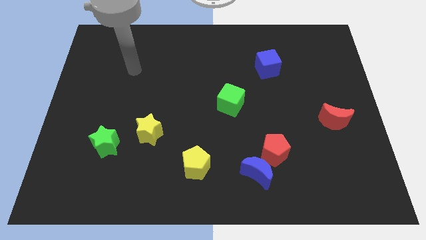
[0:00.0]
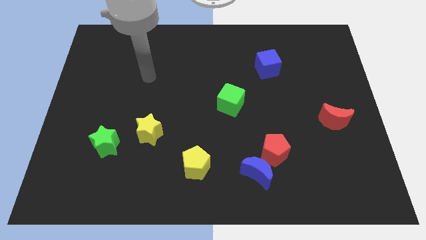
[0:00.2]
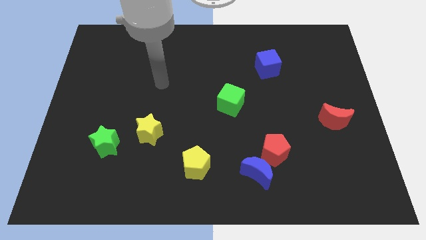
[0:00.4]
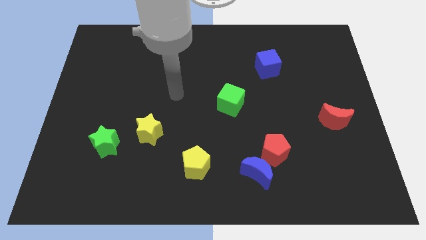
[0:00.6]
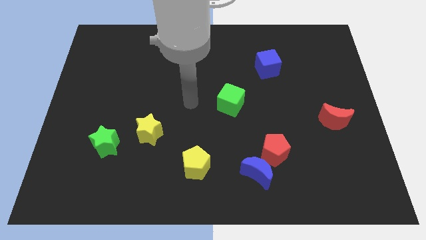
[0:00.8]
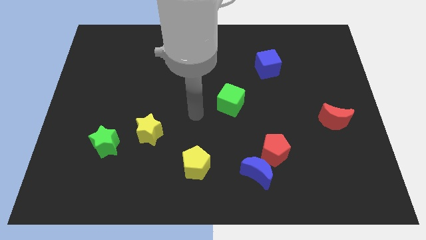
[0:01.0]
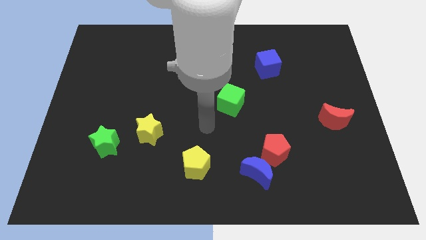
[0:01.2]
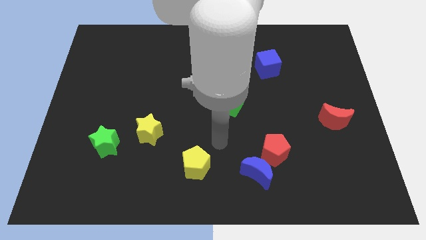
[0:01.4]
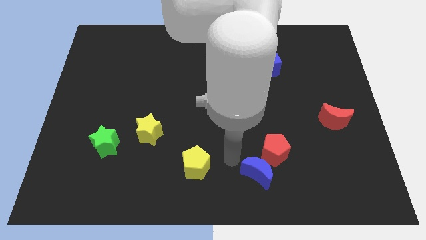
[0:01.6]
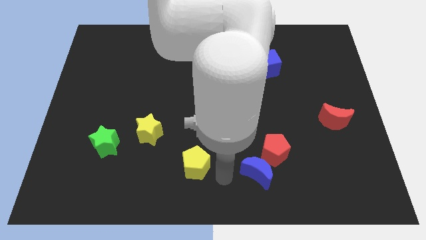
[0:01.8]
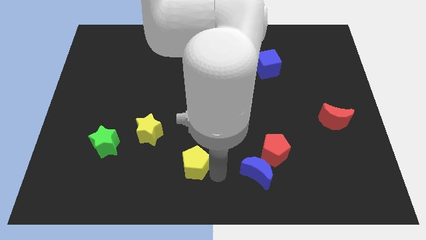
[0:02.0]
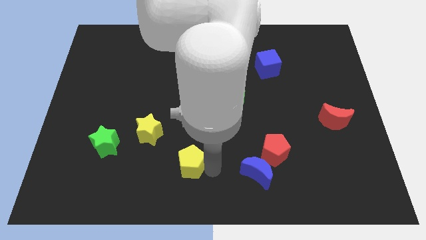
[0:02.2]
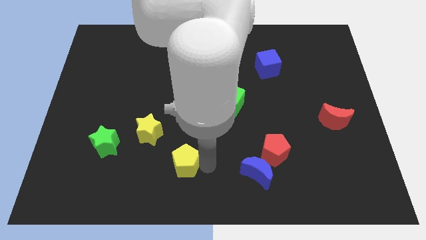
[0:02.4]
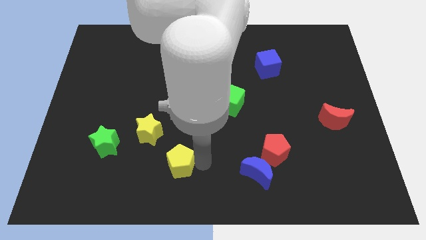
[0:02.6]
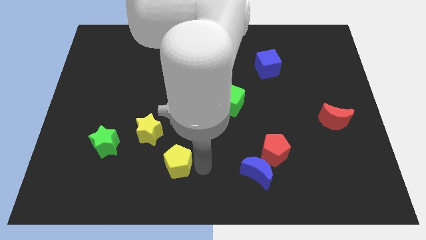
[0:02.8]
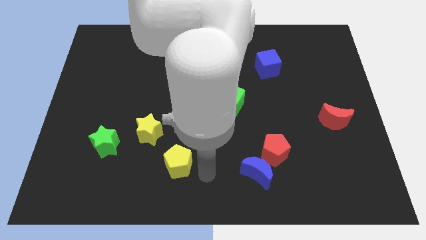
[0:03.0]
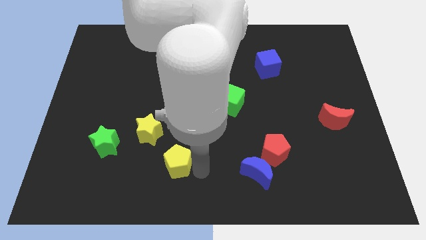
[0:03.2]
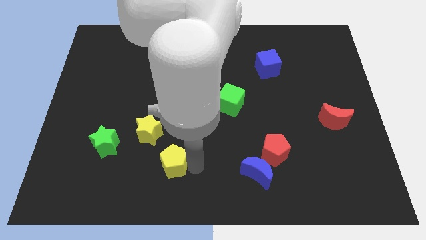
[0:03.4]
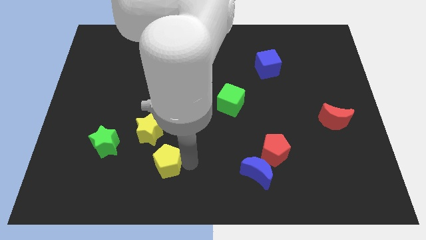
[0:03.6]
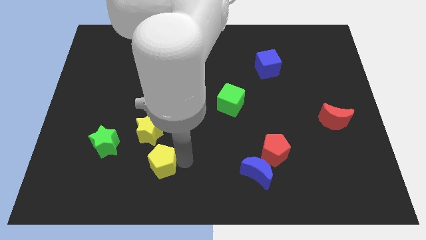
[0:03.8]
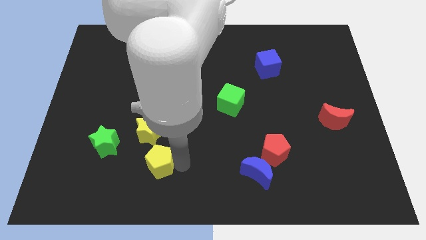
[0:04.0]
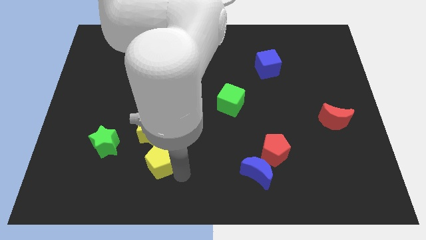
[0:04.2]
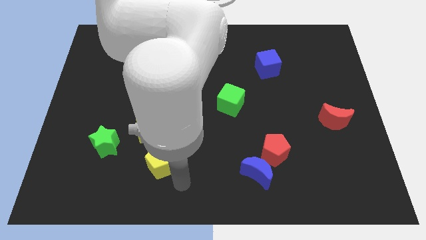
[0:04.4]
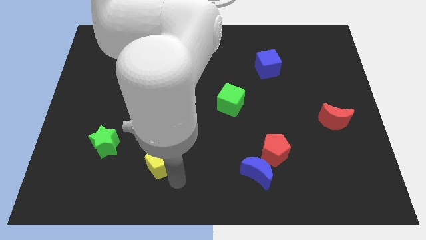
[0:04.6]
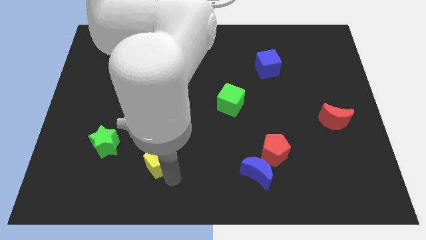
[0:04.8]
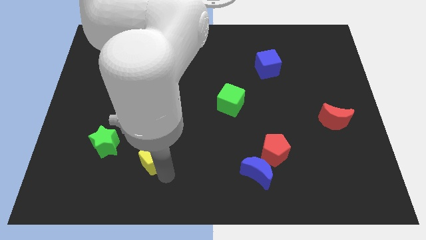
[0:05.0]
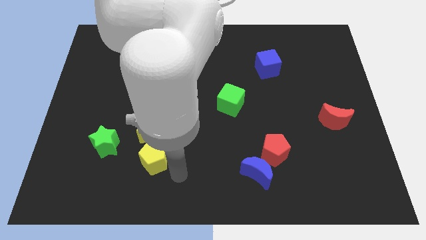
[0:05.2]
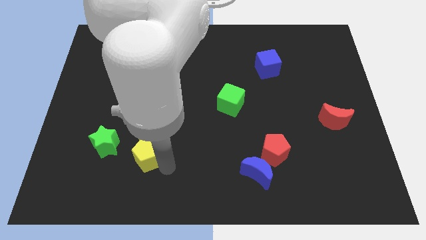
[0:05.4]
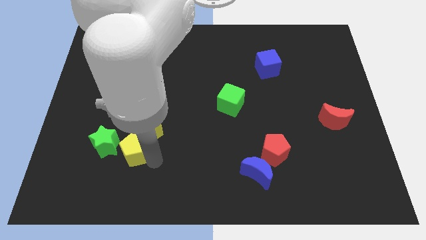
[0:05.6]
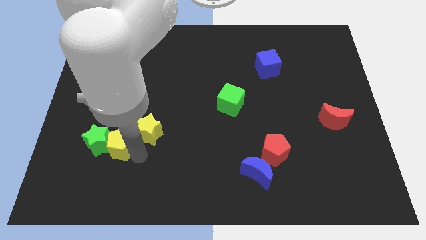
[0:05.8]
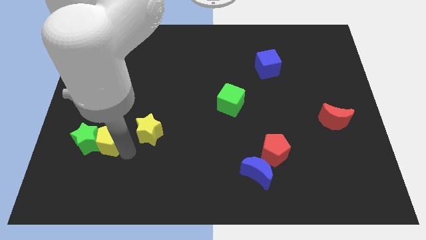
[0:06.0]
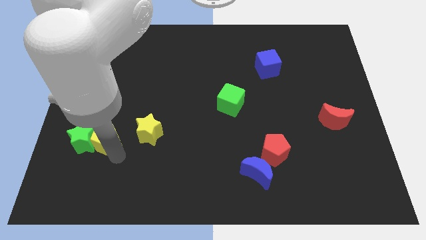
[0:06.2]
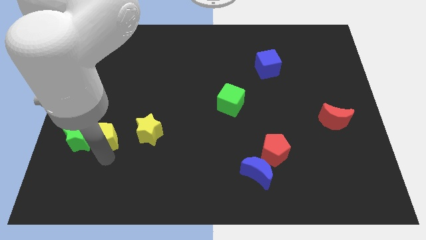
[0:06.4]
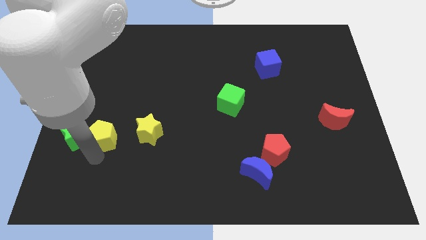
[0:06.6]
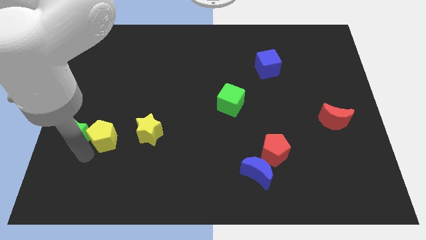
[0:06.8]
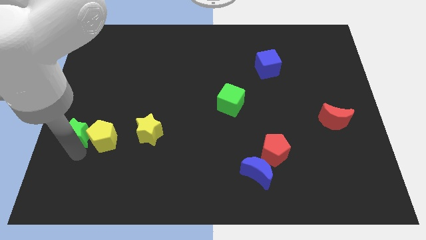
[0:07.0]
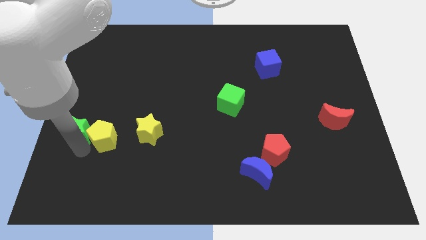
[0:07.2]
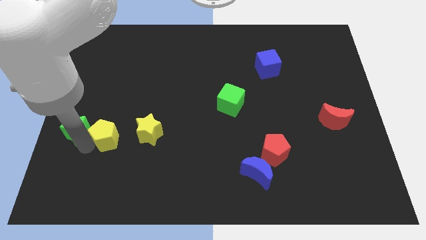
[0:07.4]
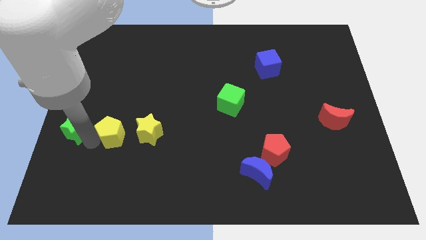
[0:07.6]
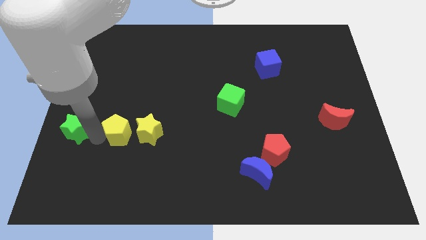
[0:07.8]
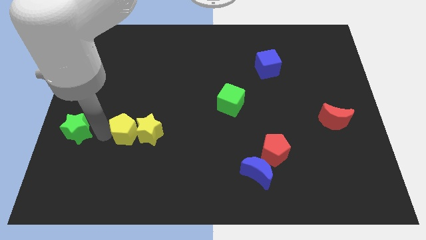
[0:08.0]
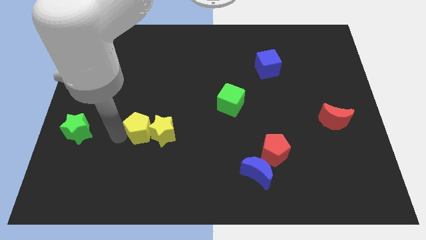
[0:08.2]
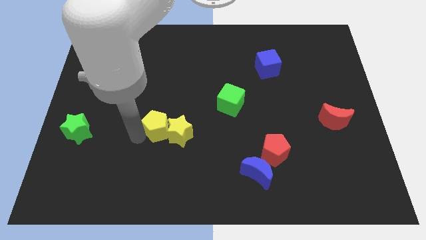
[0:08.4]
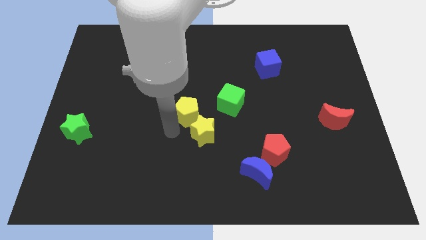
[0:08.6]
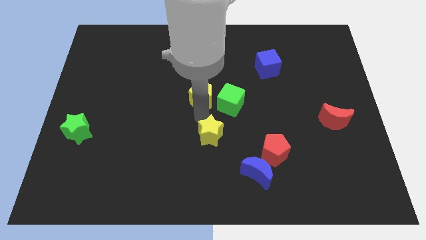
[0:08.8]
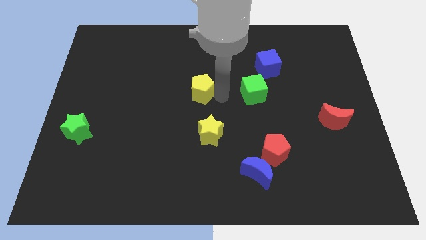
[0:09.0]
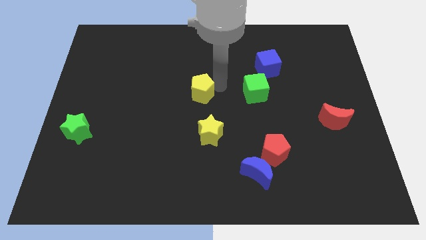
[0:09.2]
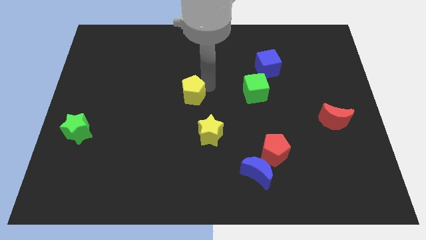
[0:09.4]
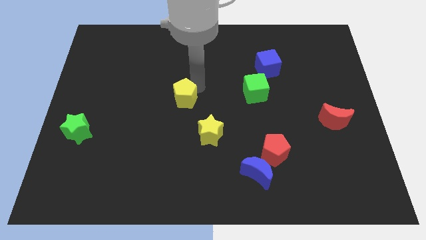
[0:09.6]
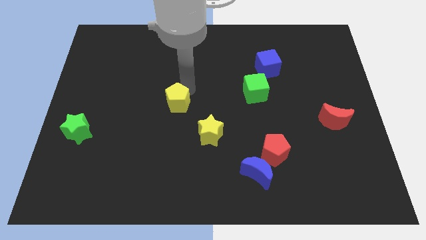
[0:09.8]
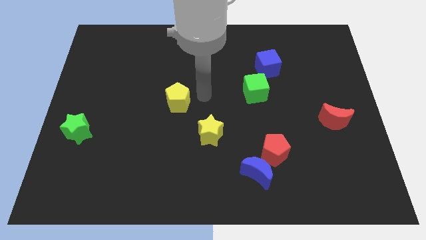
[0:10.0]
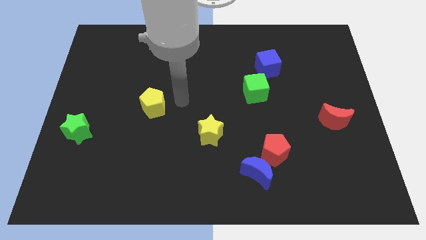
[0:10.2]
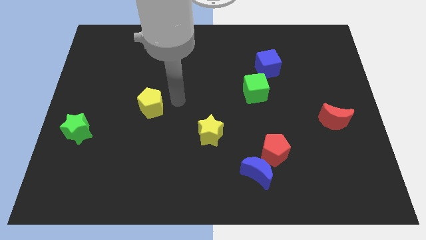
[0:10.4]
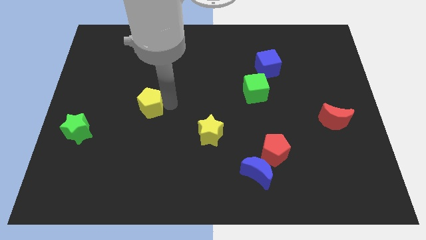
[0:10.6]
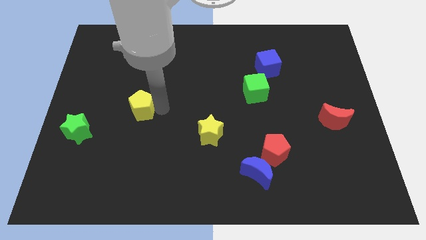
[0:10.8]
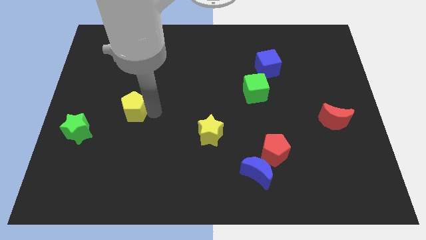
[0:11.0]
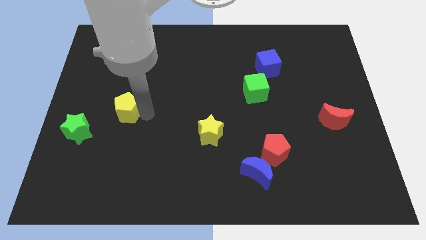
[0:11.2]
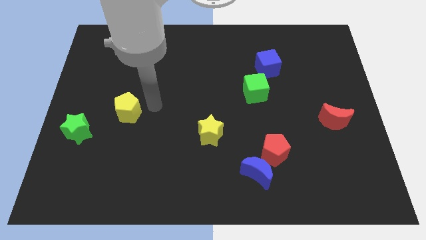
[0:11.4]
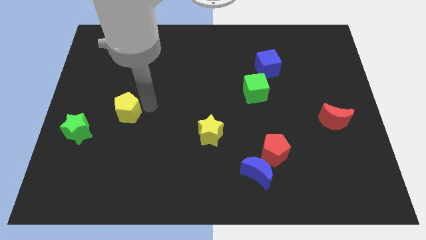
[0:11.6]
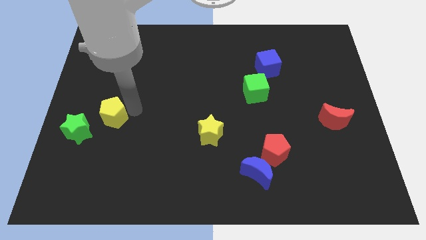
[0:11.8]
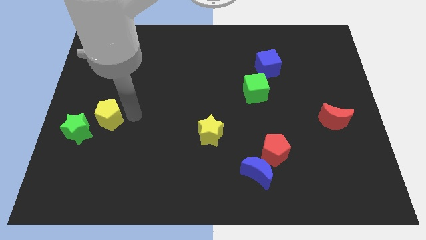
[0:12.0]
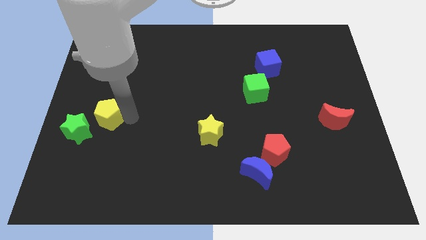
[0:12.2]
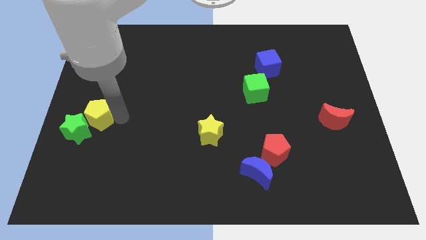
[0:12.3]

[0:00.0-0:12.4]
push the yellow pentagon to the left side
